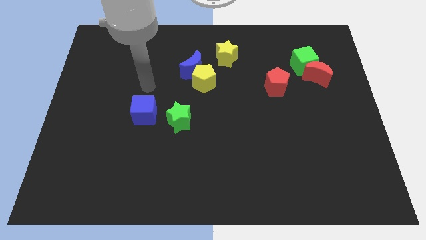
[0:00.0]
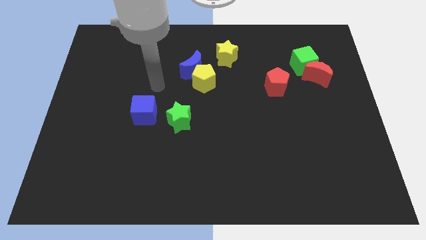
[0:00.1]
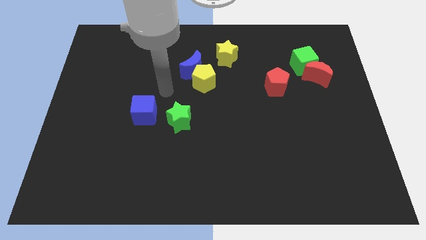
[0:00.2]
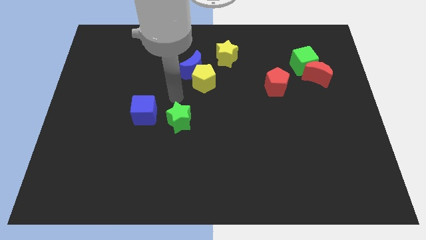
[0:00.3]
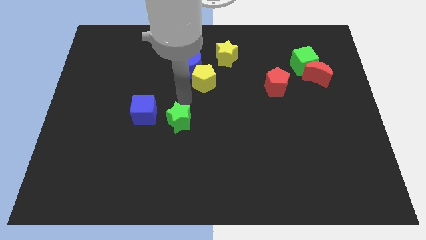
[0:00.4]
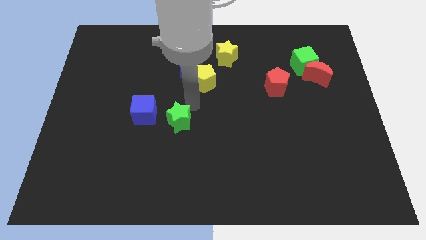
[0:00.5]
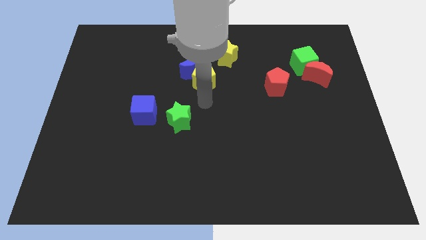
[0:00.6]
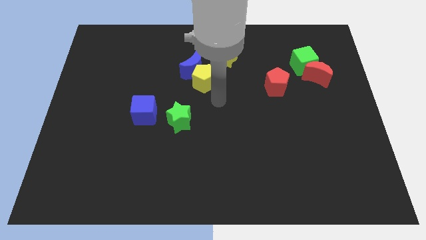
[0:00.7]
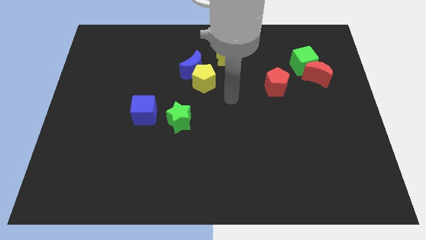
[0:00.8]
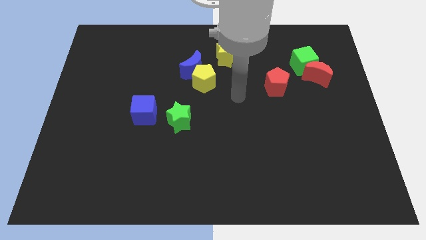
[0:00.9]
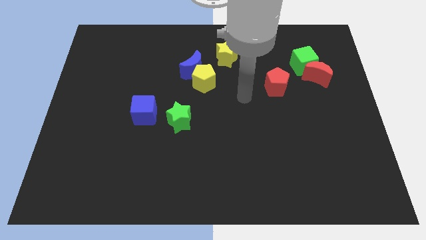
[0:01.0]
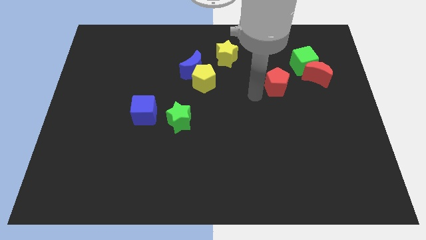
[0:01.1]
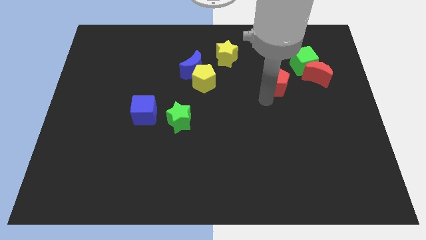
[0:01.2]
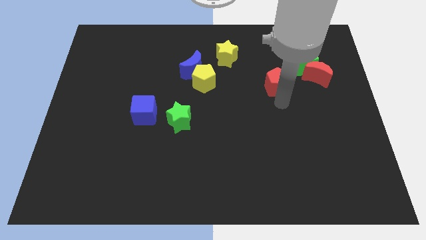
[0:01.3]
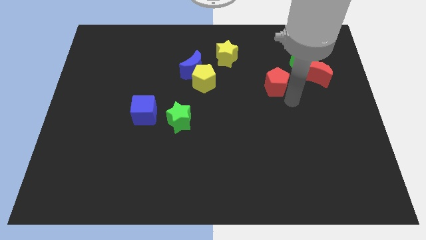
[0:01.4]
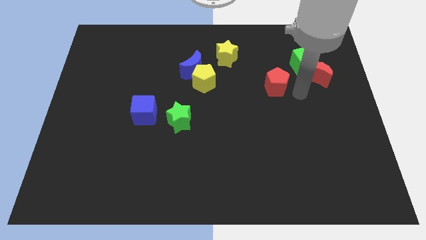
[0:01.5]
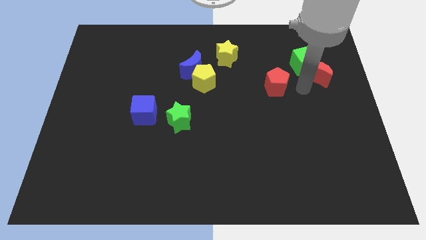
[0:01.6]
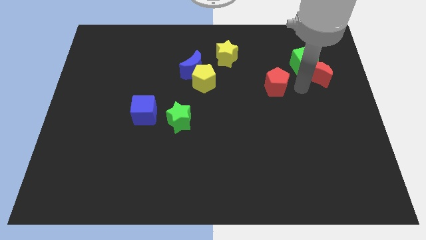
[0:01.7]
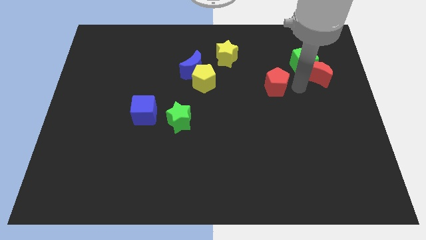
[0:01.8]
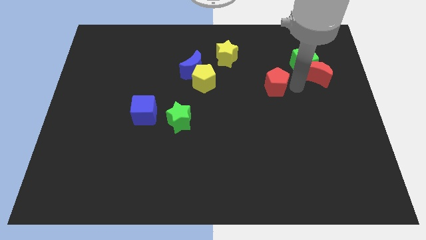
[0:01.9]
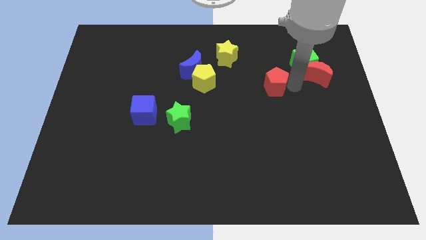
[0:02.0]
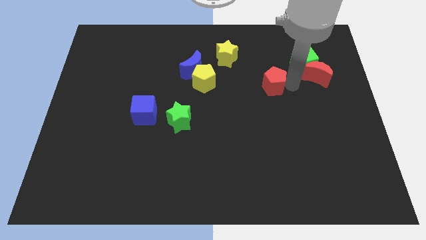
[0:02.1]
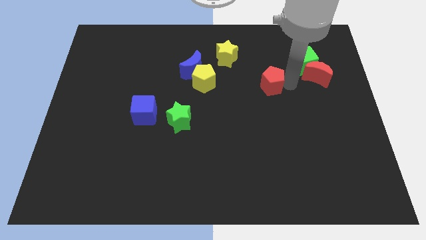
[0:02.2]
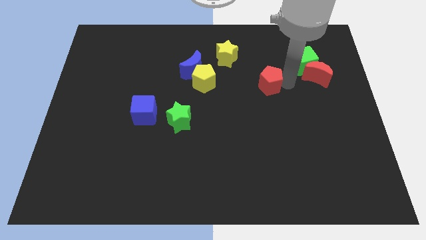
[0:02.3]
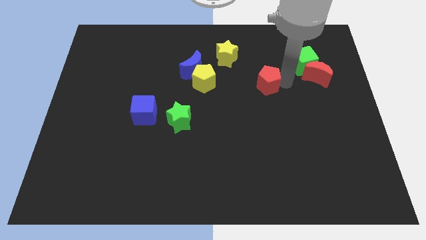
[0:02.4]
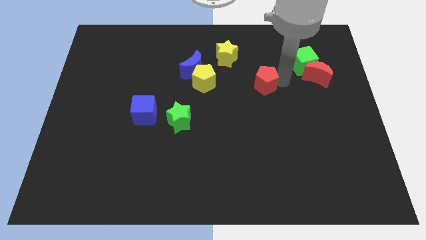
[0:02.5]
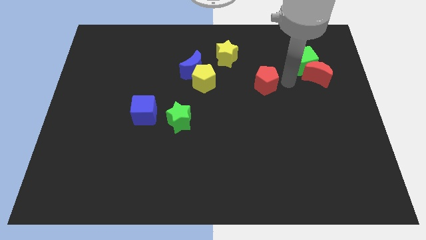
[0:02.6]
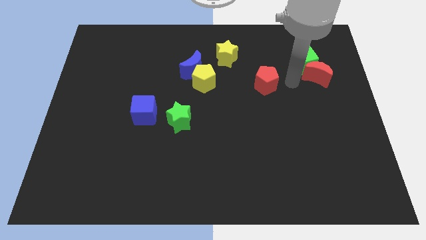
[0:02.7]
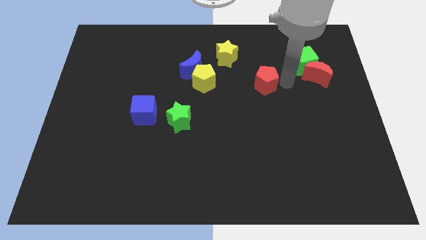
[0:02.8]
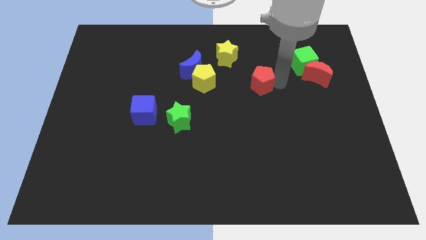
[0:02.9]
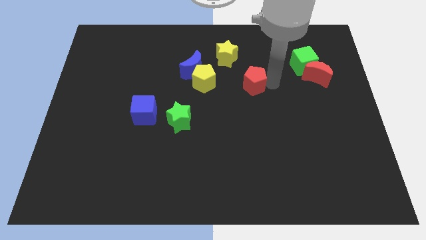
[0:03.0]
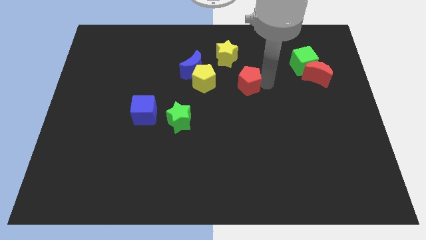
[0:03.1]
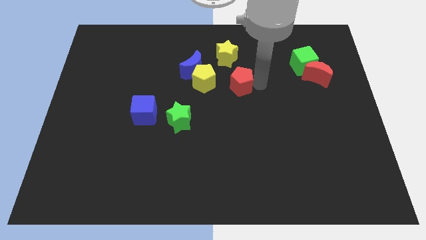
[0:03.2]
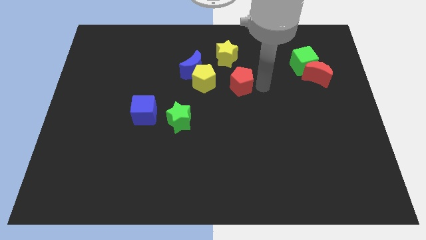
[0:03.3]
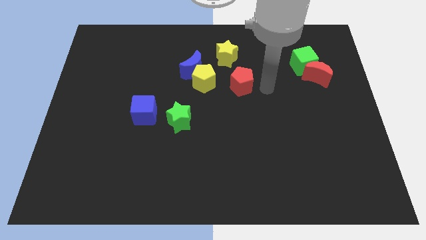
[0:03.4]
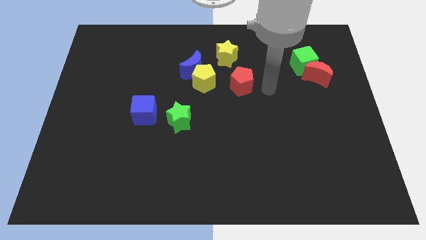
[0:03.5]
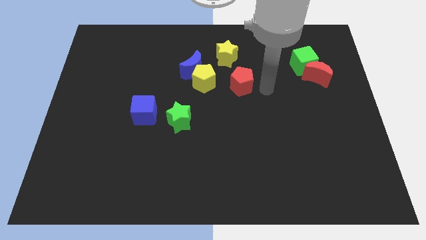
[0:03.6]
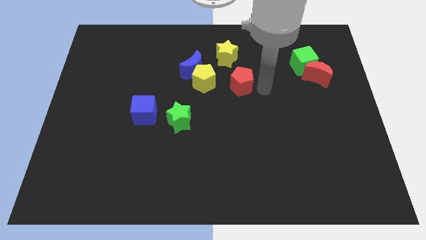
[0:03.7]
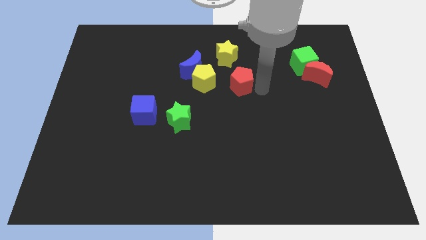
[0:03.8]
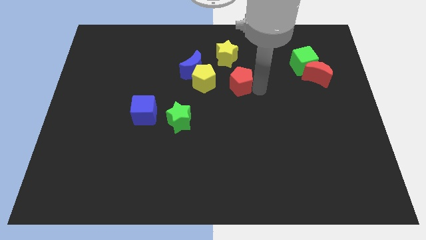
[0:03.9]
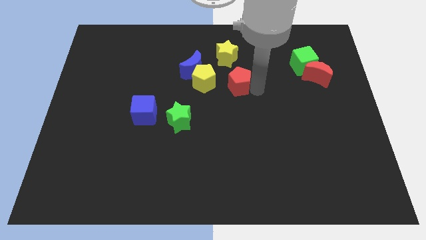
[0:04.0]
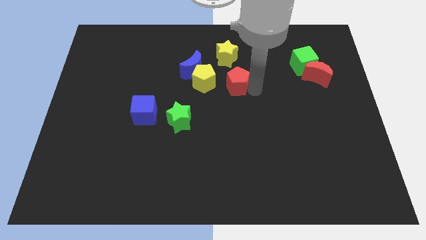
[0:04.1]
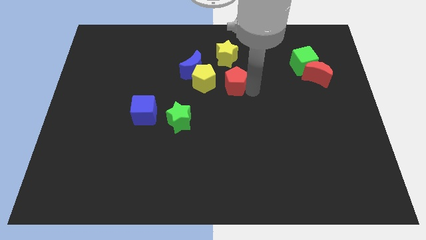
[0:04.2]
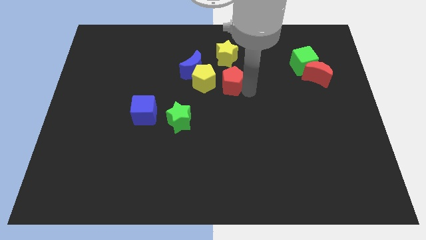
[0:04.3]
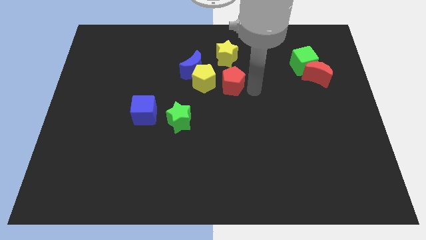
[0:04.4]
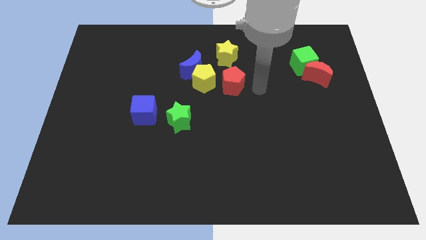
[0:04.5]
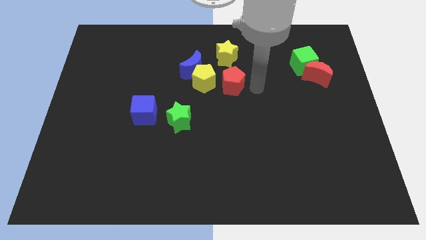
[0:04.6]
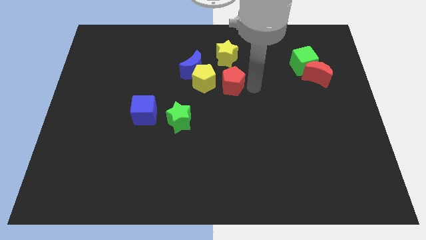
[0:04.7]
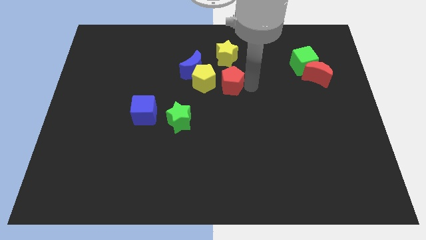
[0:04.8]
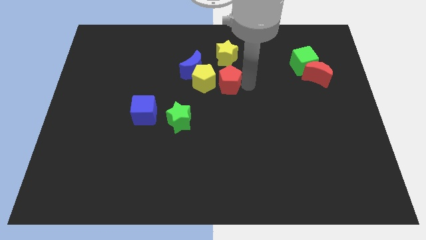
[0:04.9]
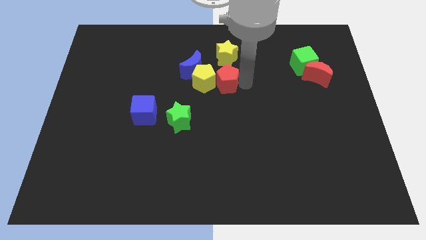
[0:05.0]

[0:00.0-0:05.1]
move the red pentagon towards the yellow pentagon

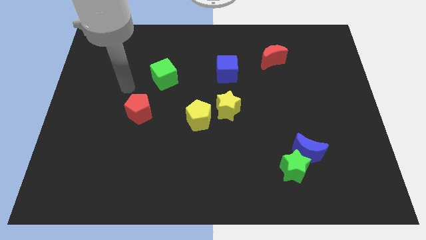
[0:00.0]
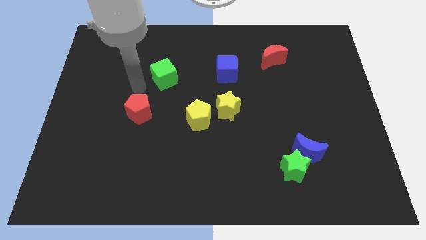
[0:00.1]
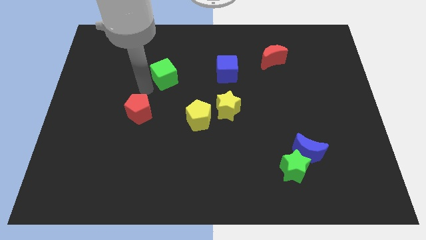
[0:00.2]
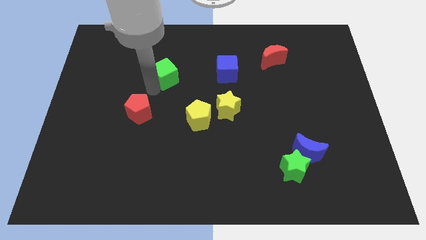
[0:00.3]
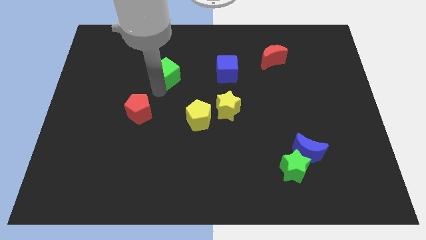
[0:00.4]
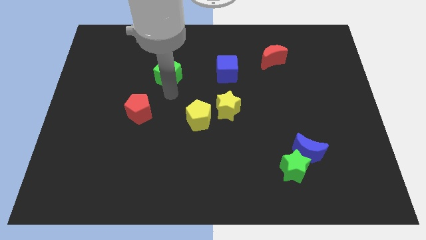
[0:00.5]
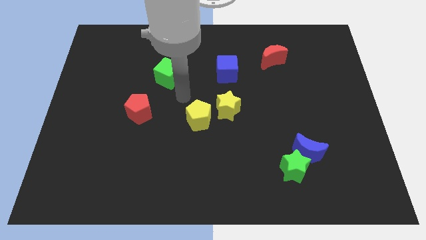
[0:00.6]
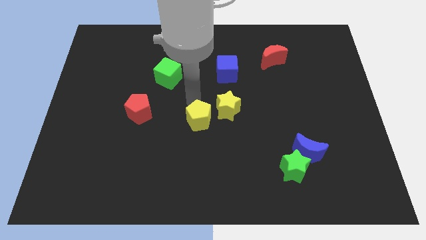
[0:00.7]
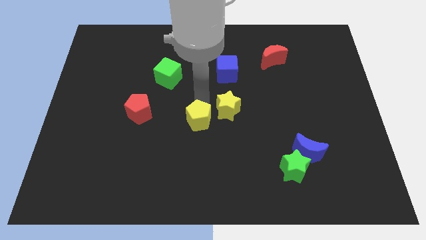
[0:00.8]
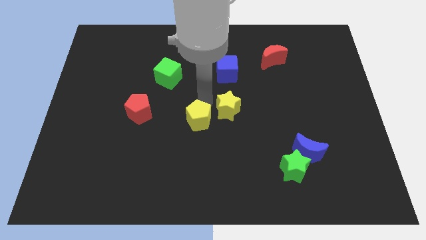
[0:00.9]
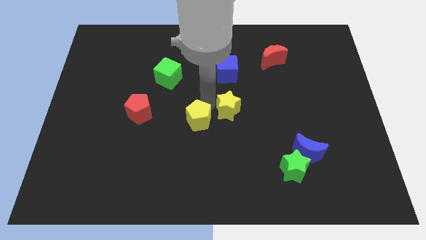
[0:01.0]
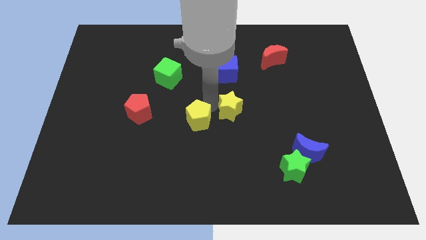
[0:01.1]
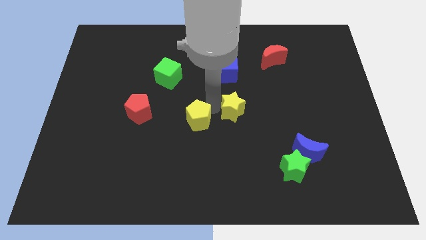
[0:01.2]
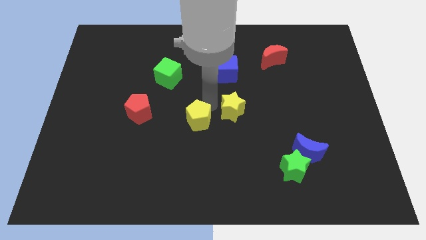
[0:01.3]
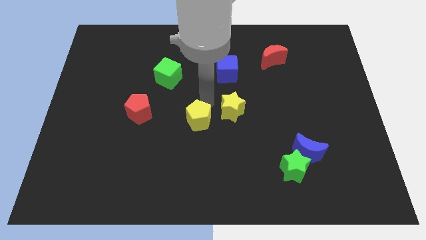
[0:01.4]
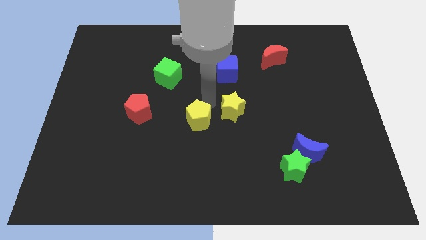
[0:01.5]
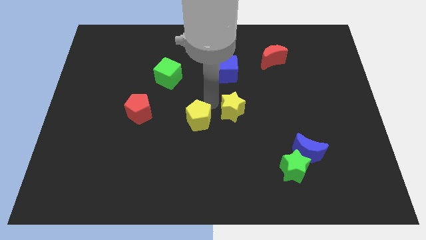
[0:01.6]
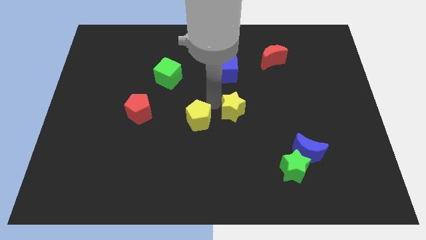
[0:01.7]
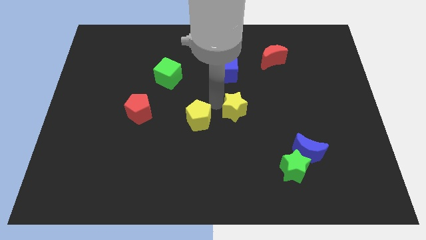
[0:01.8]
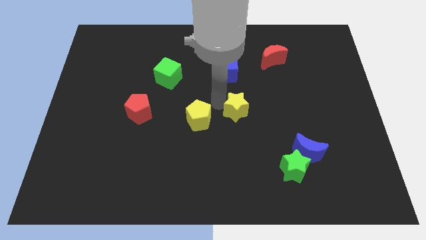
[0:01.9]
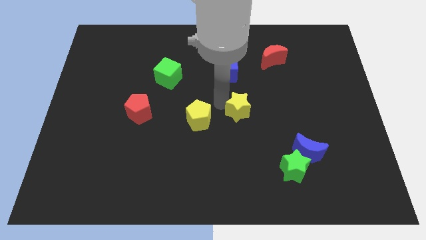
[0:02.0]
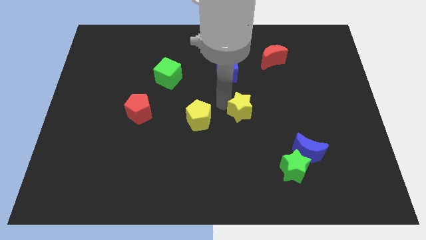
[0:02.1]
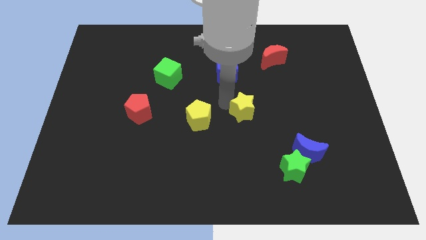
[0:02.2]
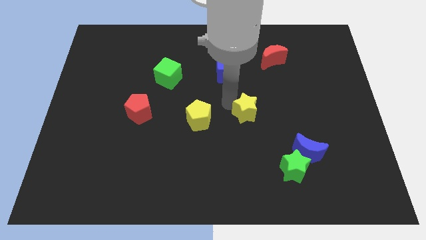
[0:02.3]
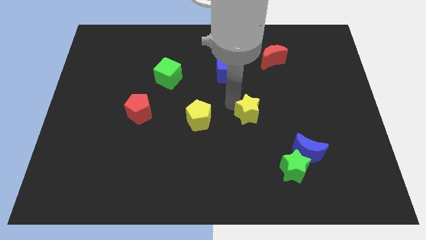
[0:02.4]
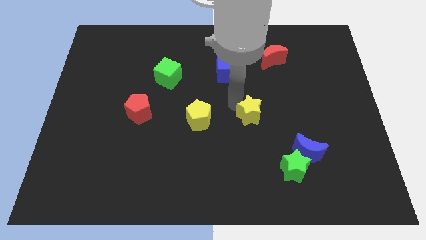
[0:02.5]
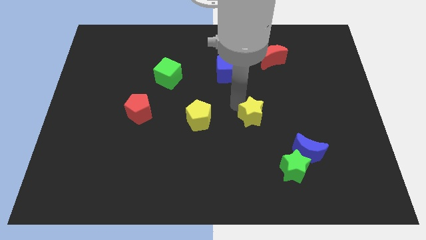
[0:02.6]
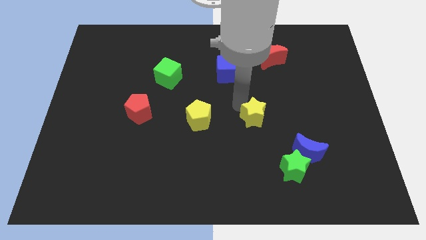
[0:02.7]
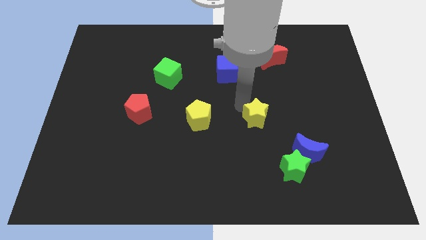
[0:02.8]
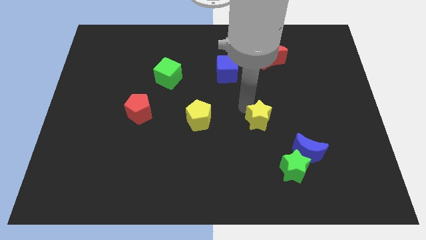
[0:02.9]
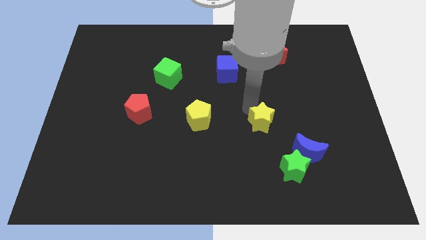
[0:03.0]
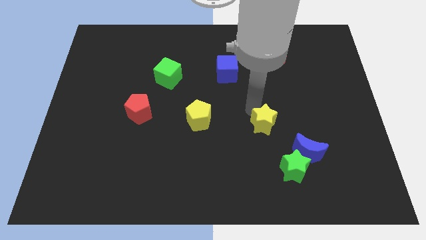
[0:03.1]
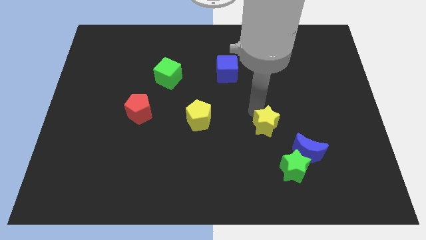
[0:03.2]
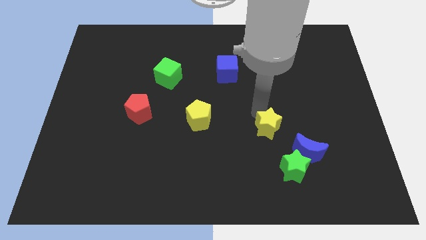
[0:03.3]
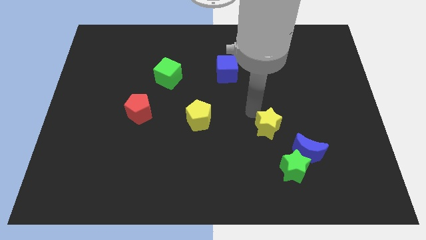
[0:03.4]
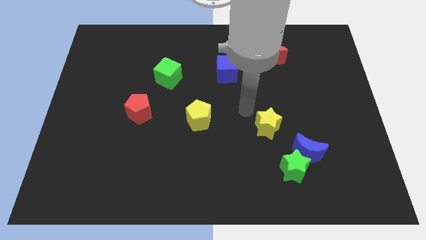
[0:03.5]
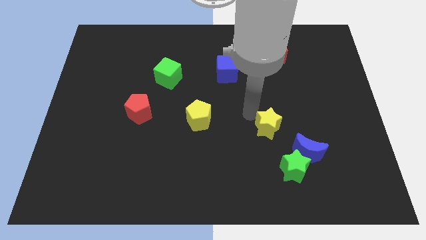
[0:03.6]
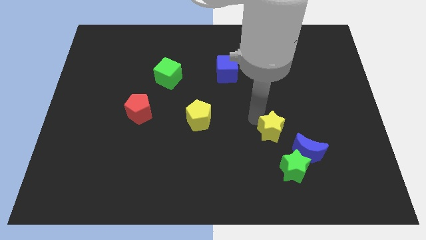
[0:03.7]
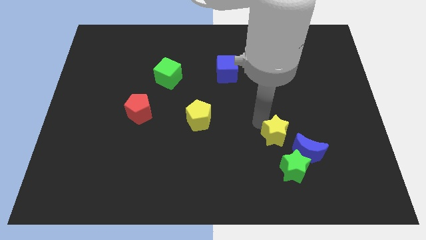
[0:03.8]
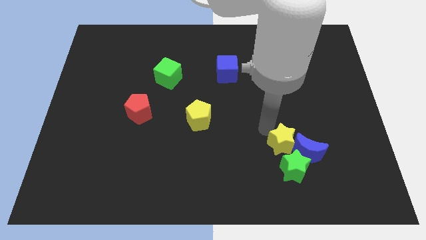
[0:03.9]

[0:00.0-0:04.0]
put the yellow star close to the blue moon
